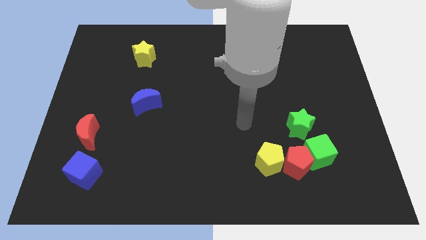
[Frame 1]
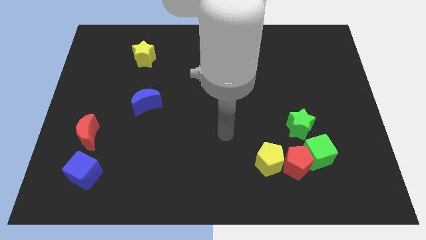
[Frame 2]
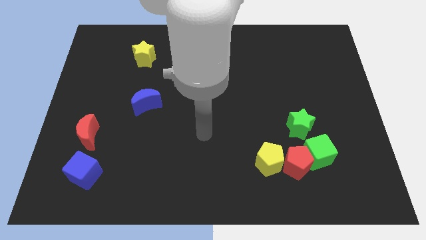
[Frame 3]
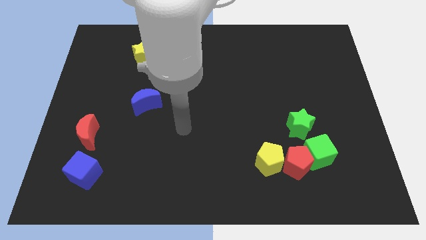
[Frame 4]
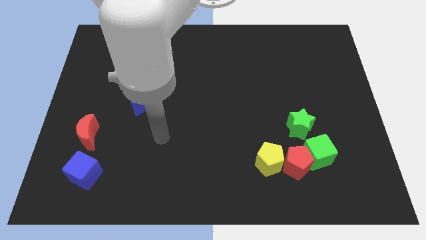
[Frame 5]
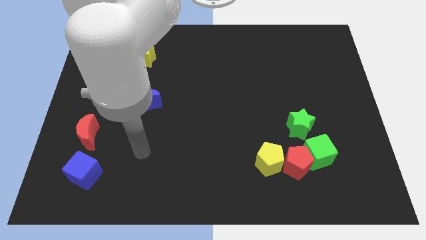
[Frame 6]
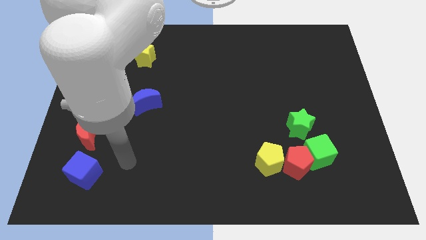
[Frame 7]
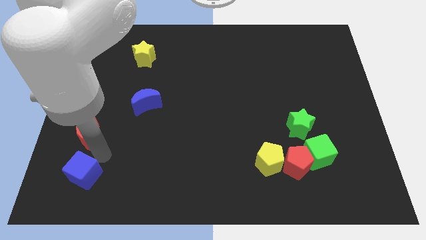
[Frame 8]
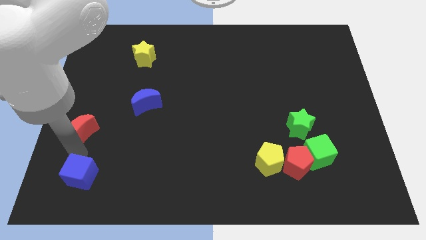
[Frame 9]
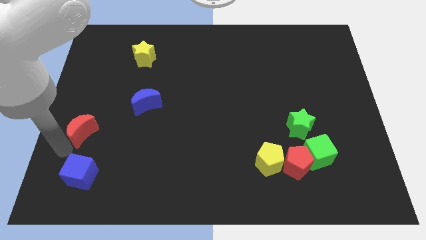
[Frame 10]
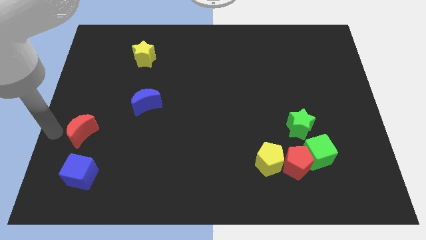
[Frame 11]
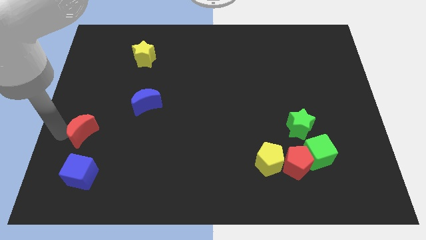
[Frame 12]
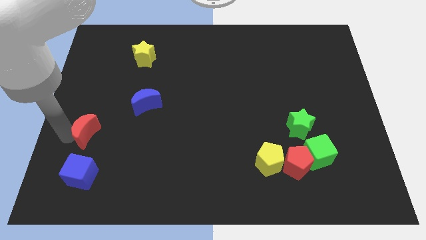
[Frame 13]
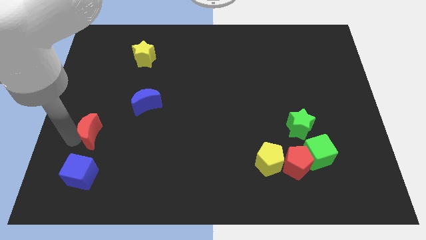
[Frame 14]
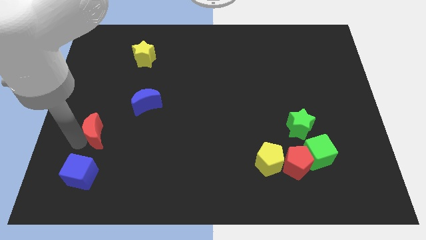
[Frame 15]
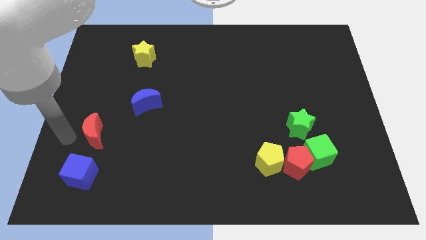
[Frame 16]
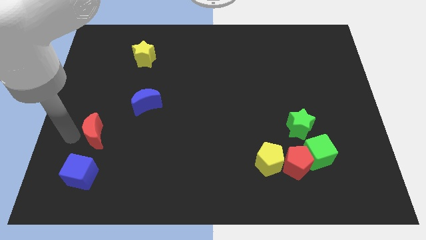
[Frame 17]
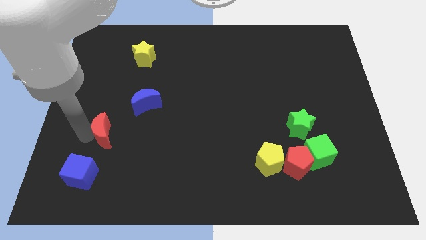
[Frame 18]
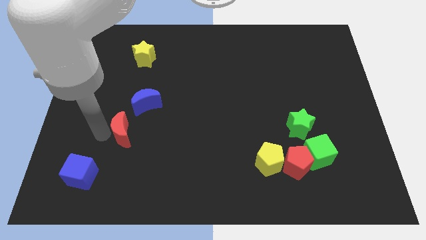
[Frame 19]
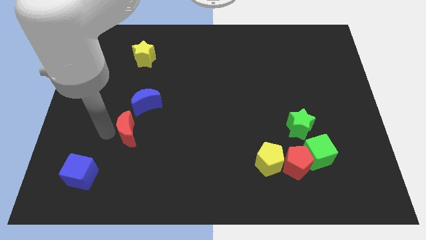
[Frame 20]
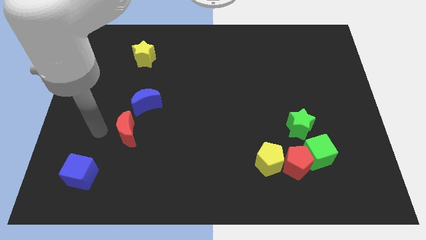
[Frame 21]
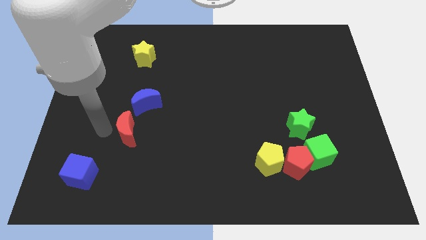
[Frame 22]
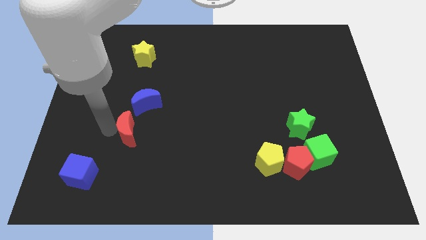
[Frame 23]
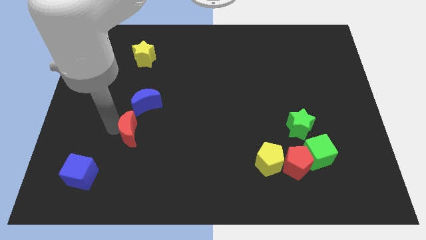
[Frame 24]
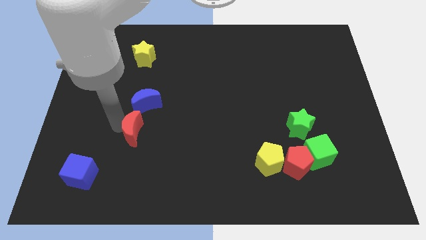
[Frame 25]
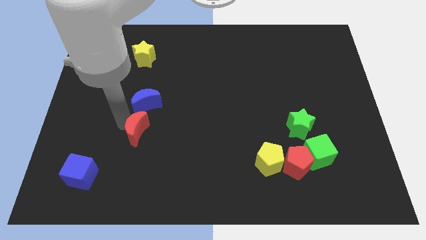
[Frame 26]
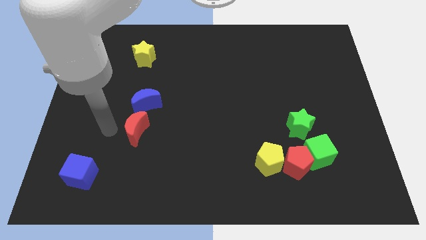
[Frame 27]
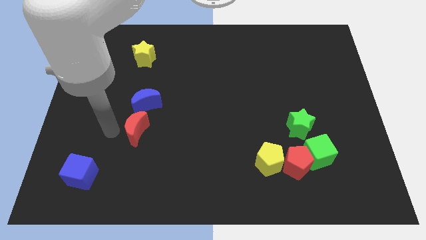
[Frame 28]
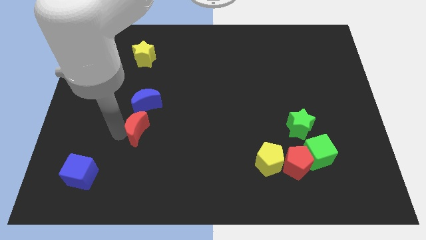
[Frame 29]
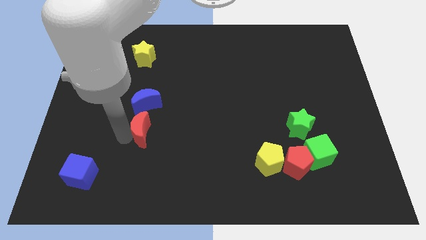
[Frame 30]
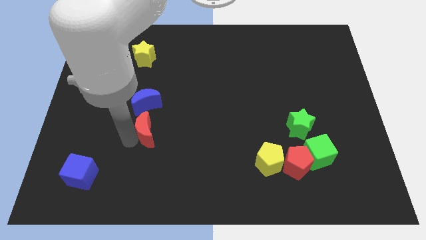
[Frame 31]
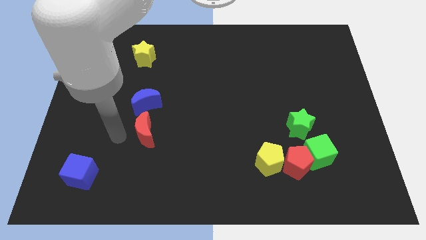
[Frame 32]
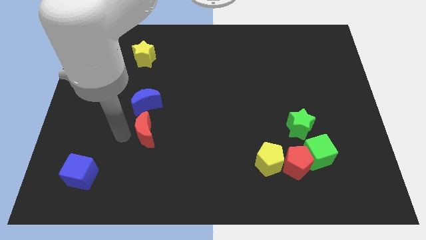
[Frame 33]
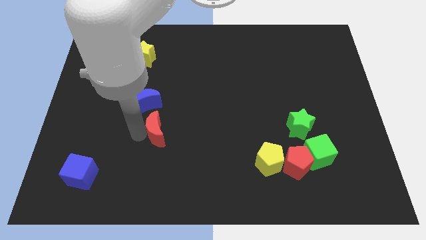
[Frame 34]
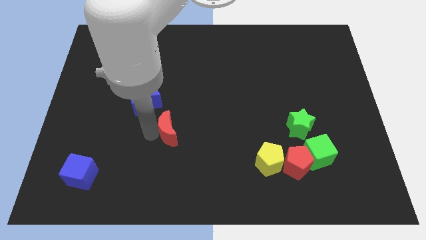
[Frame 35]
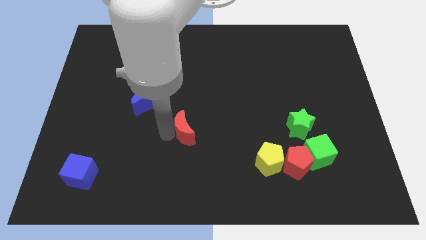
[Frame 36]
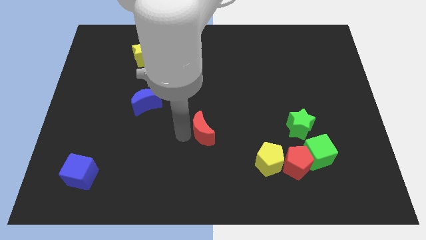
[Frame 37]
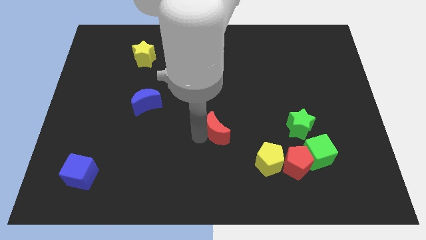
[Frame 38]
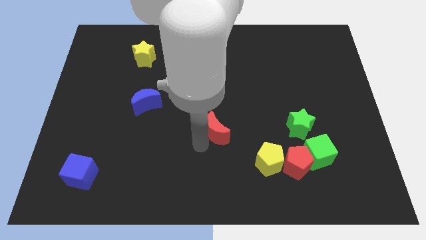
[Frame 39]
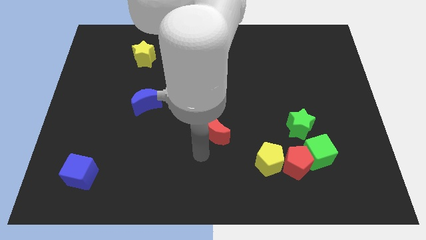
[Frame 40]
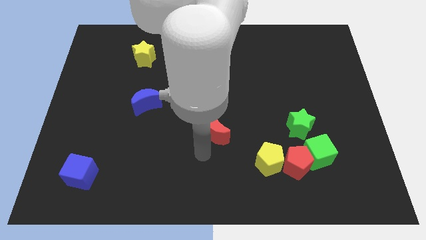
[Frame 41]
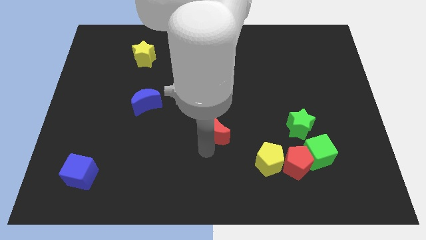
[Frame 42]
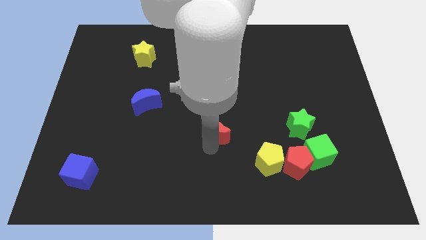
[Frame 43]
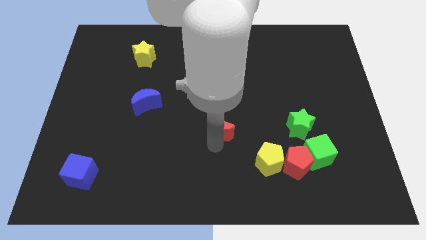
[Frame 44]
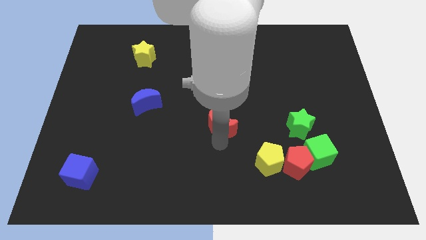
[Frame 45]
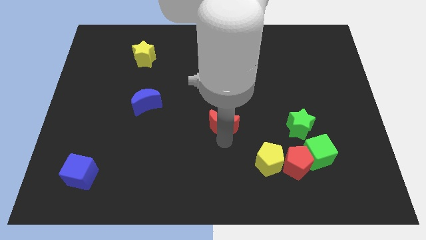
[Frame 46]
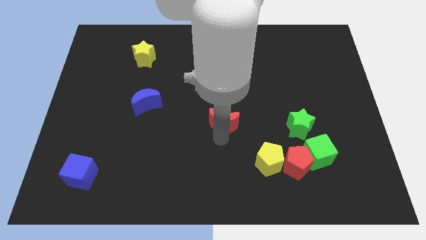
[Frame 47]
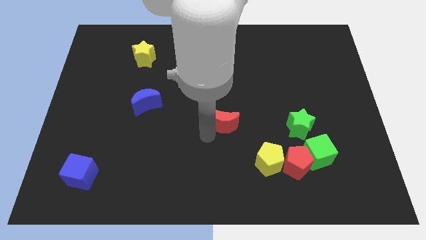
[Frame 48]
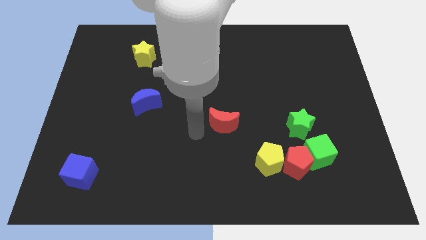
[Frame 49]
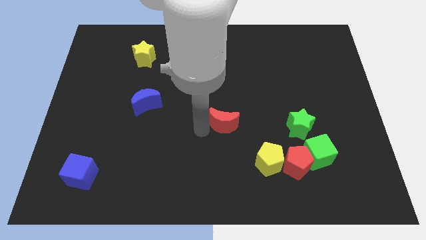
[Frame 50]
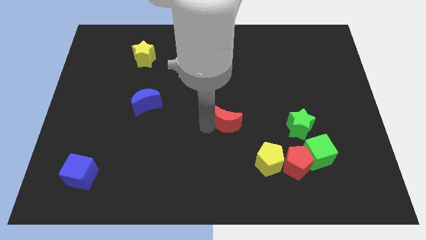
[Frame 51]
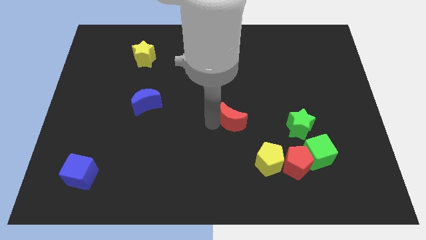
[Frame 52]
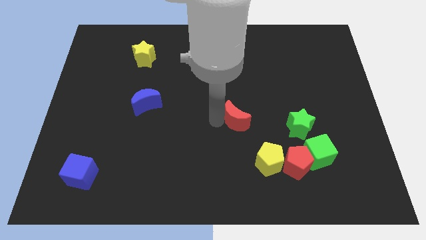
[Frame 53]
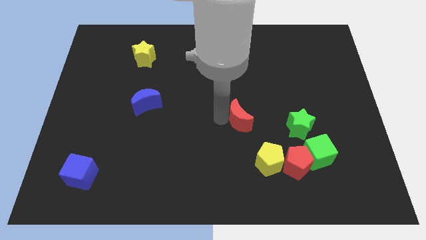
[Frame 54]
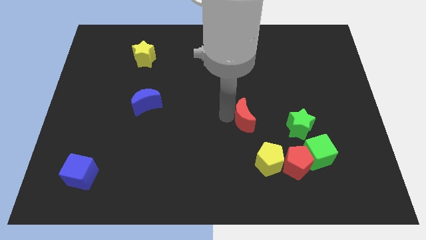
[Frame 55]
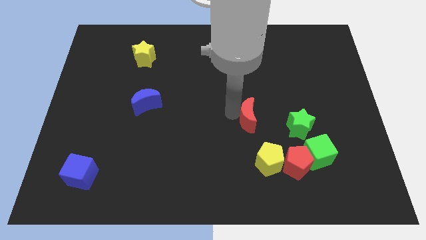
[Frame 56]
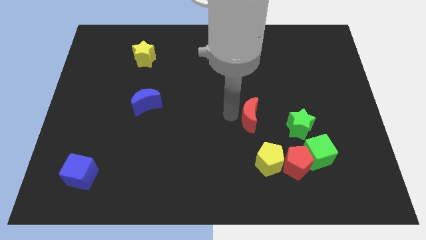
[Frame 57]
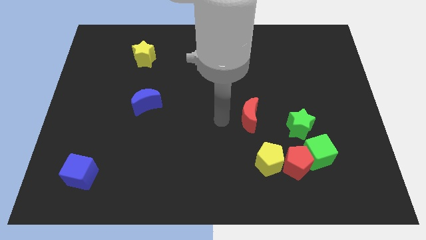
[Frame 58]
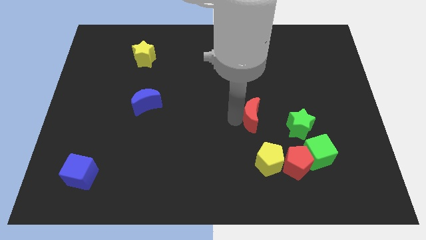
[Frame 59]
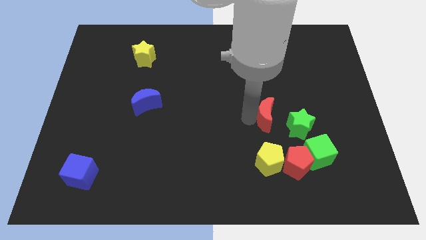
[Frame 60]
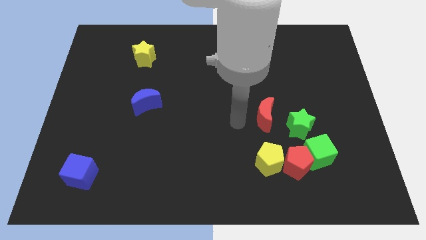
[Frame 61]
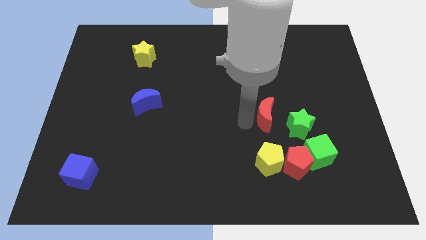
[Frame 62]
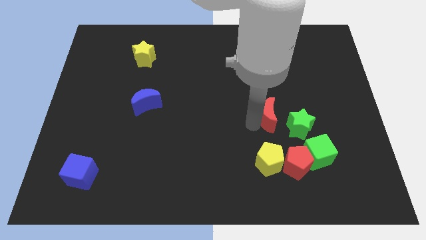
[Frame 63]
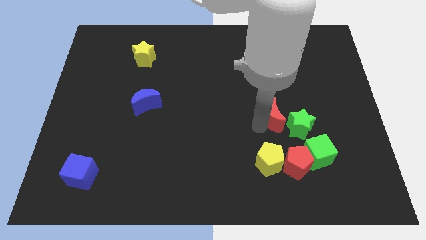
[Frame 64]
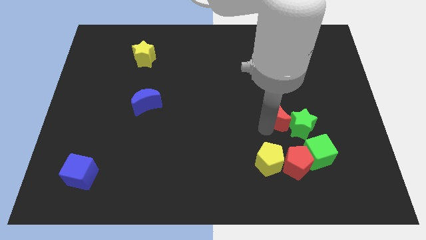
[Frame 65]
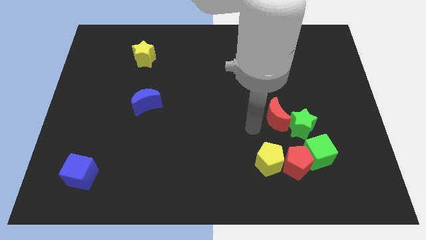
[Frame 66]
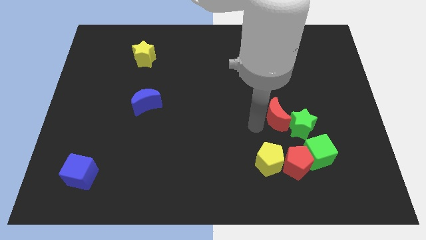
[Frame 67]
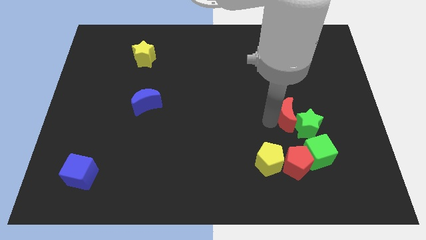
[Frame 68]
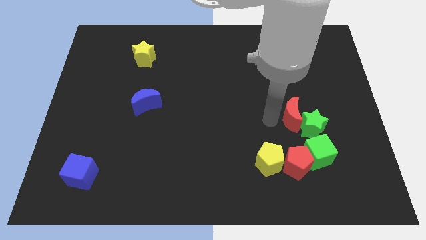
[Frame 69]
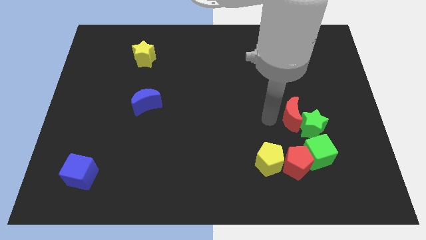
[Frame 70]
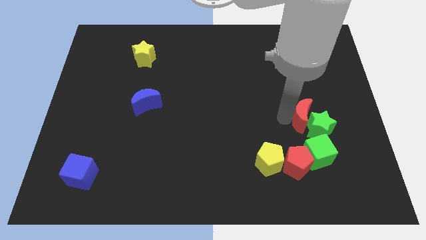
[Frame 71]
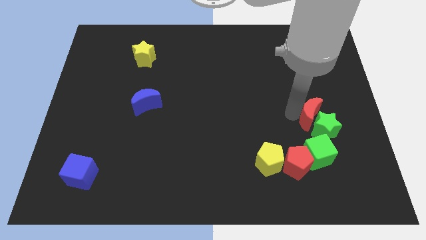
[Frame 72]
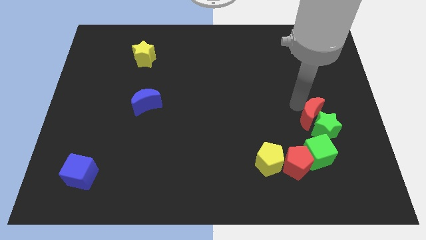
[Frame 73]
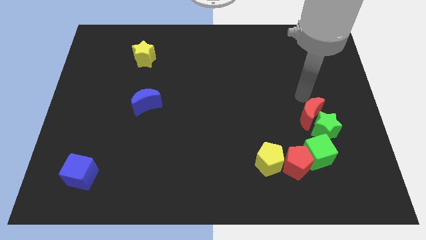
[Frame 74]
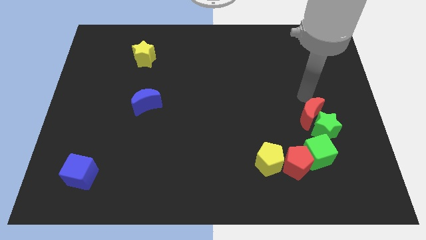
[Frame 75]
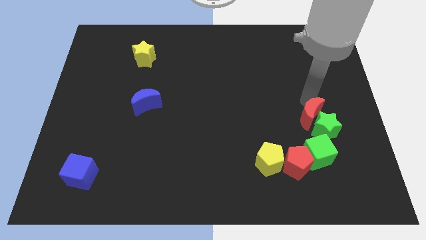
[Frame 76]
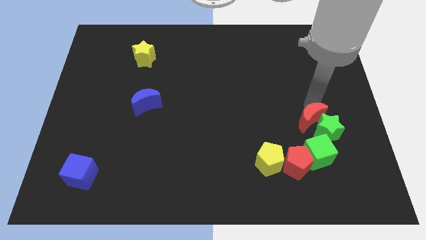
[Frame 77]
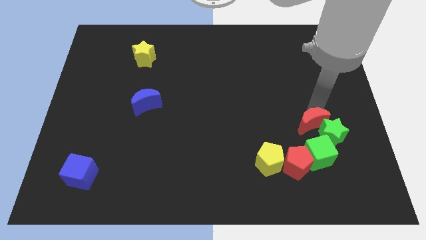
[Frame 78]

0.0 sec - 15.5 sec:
put the red moon to the top right side of the red pentagon
